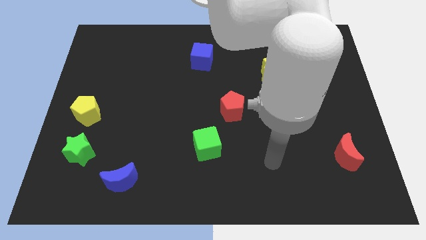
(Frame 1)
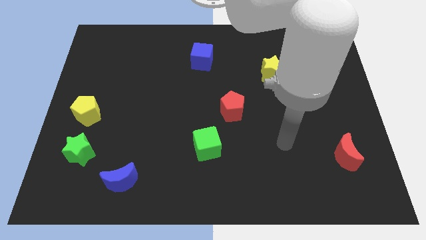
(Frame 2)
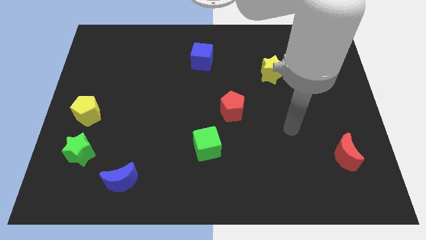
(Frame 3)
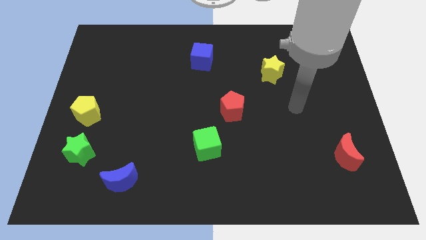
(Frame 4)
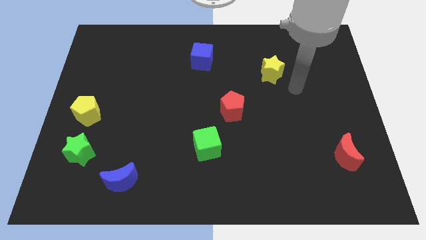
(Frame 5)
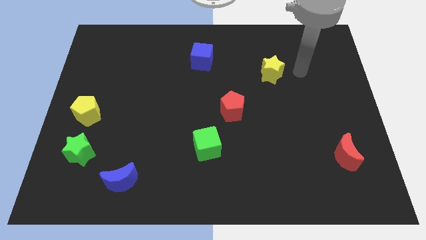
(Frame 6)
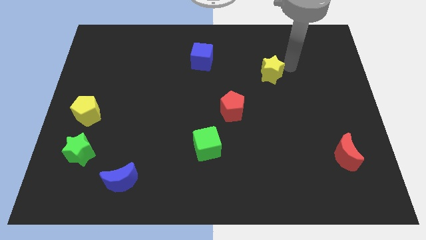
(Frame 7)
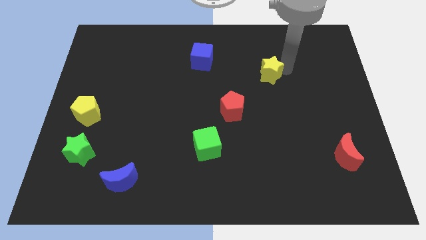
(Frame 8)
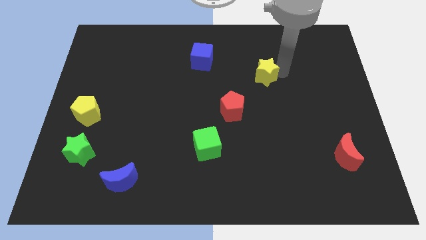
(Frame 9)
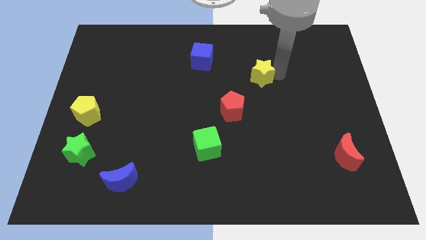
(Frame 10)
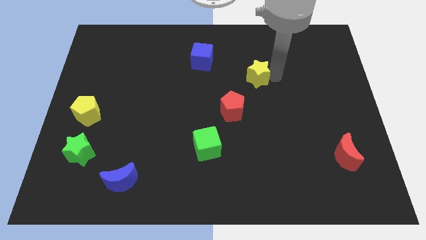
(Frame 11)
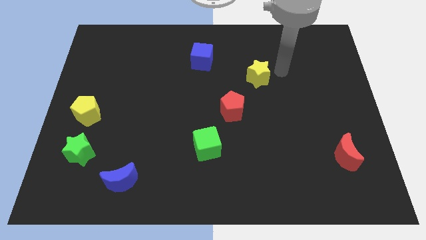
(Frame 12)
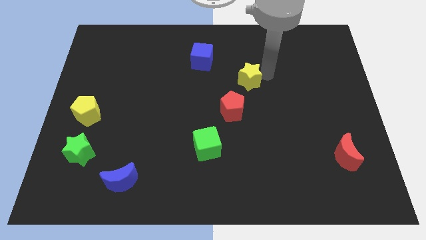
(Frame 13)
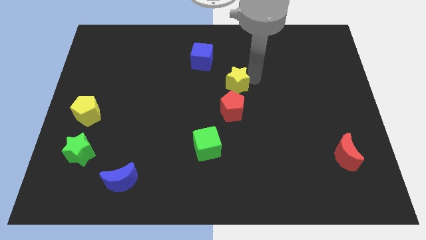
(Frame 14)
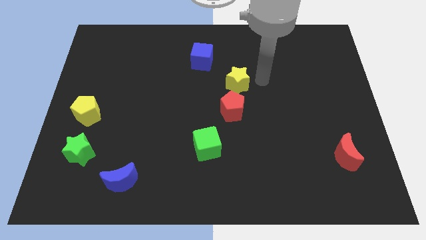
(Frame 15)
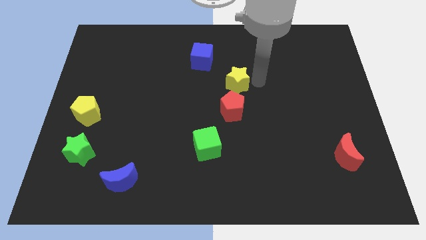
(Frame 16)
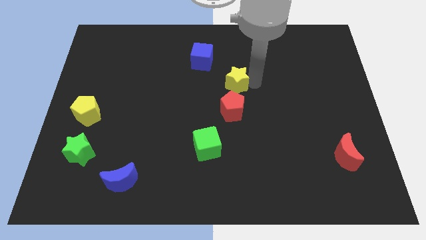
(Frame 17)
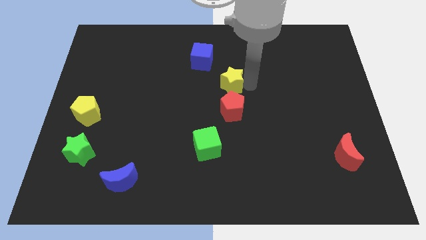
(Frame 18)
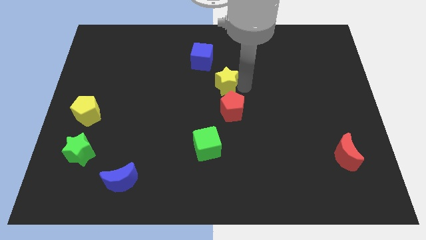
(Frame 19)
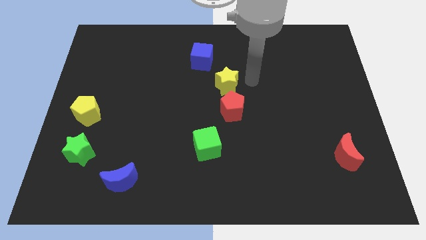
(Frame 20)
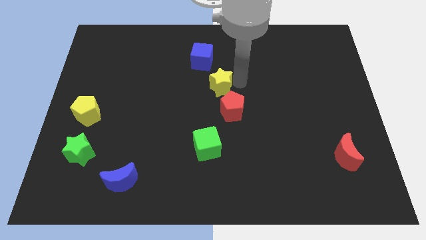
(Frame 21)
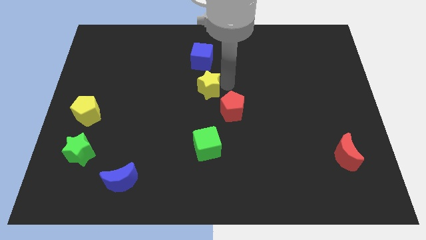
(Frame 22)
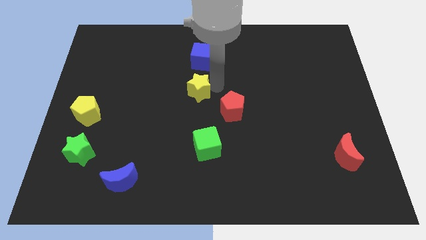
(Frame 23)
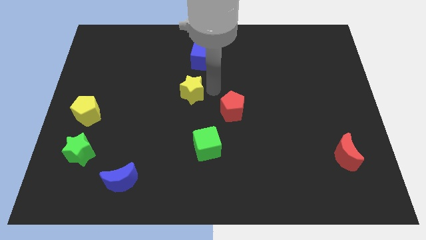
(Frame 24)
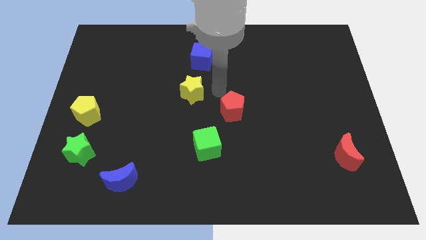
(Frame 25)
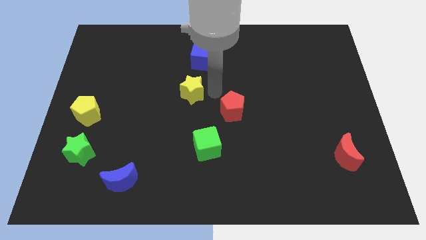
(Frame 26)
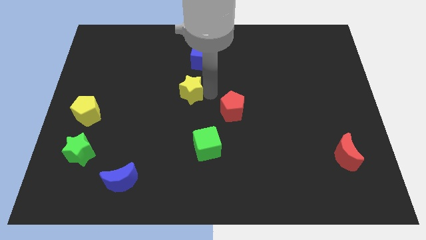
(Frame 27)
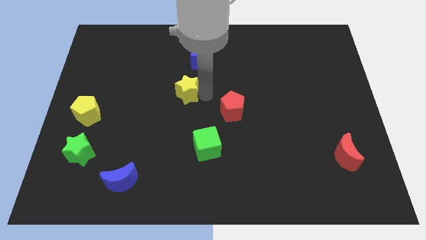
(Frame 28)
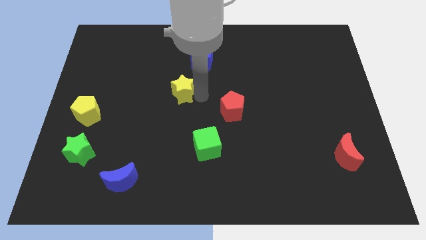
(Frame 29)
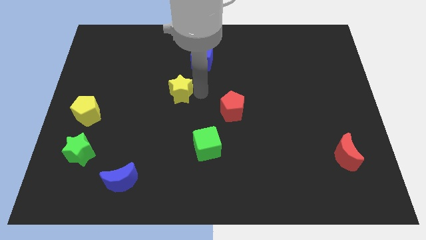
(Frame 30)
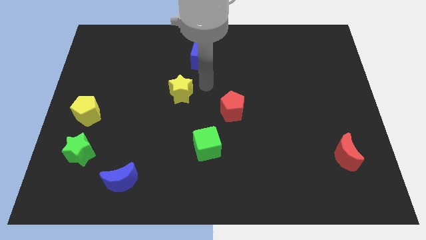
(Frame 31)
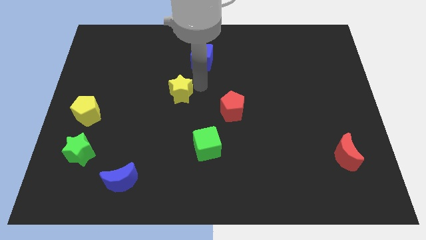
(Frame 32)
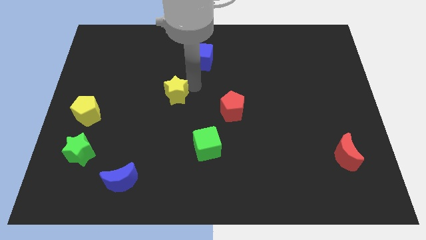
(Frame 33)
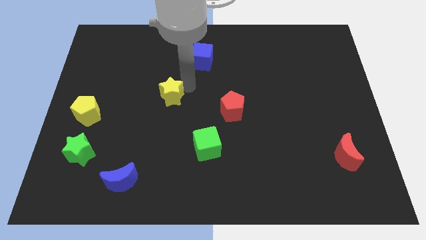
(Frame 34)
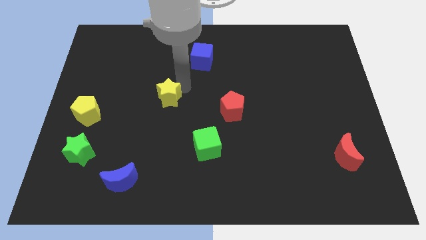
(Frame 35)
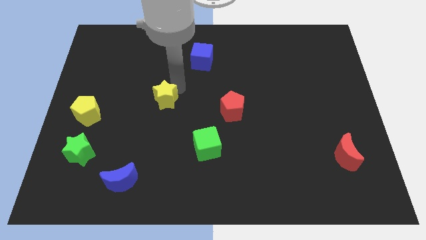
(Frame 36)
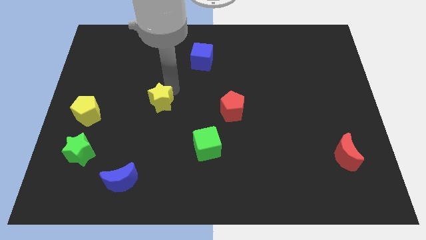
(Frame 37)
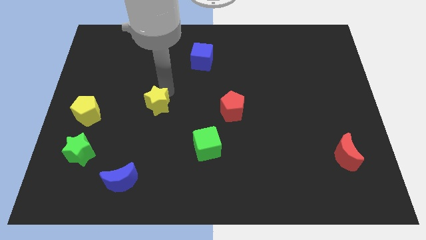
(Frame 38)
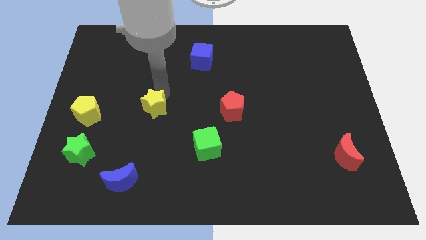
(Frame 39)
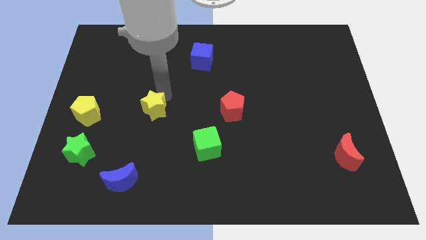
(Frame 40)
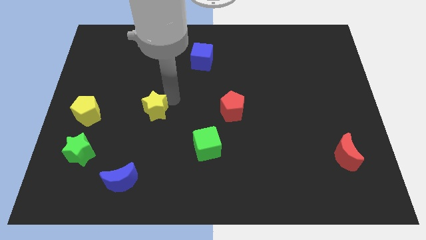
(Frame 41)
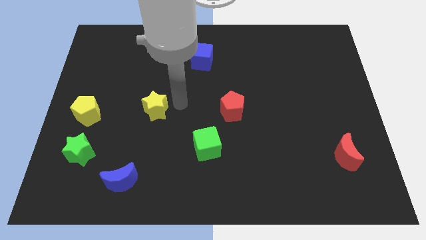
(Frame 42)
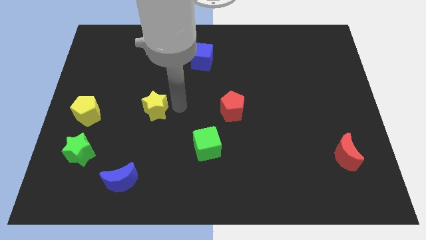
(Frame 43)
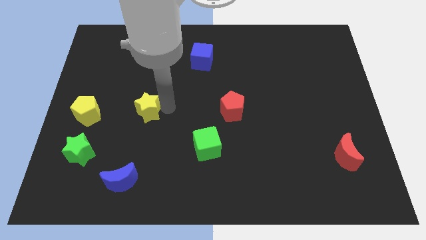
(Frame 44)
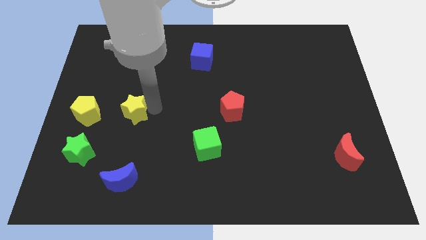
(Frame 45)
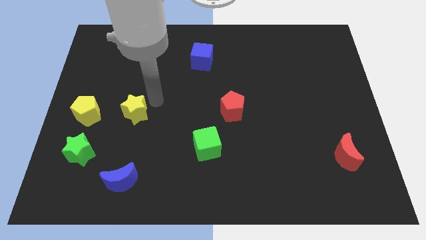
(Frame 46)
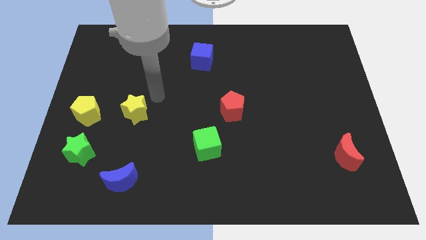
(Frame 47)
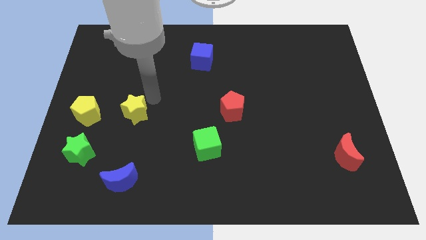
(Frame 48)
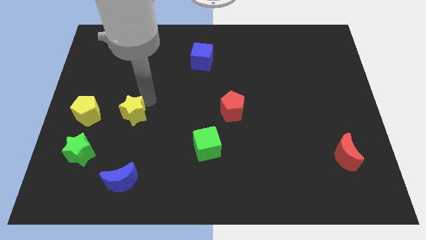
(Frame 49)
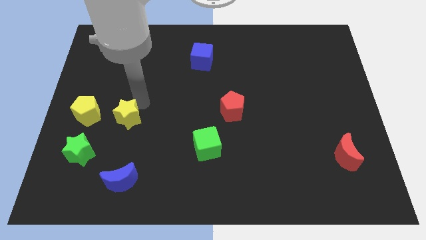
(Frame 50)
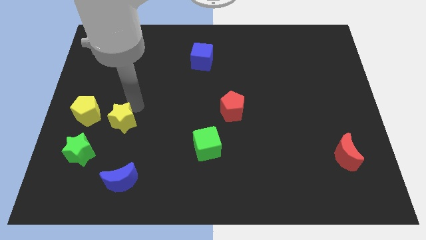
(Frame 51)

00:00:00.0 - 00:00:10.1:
put the yellow star to the bottom right side of the yellow pentagon

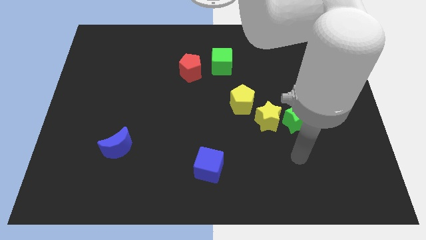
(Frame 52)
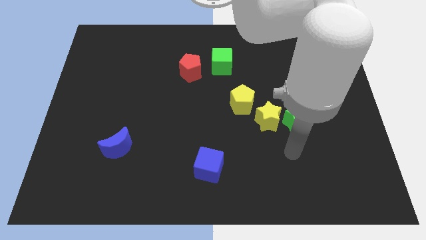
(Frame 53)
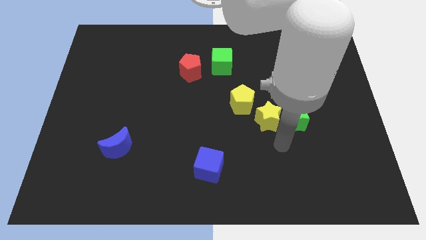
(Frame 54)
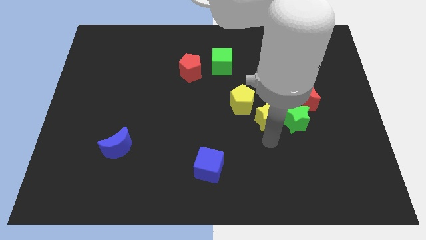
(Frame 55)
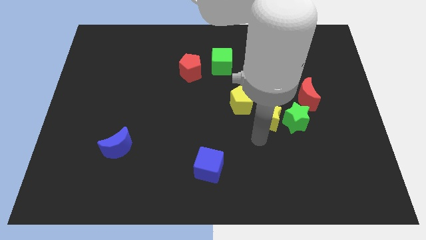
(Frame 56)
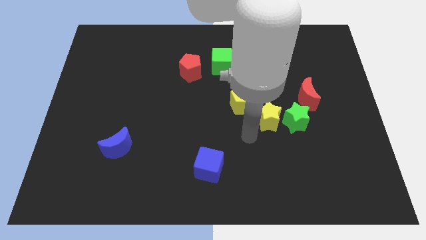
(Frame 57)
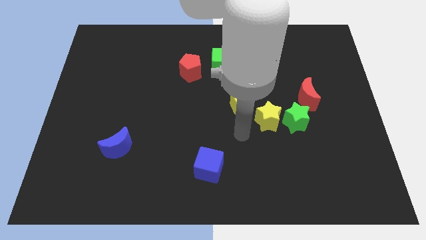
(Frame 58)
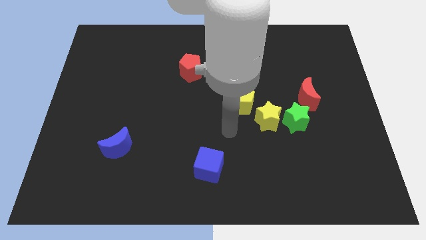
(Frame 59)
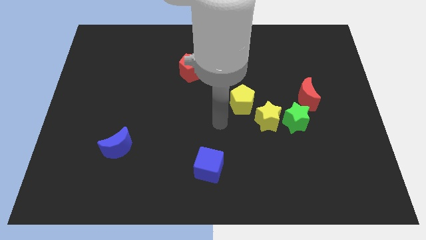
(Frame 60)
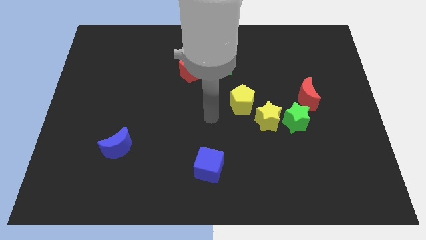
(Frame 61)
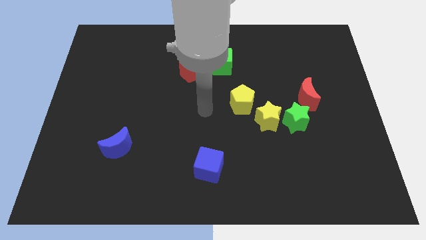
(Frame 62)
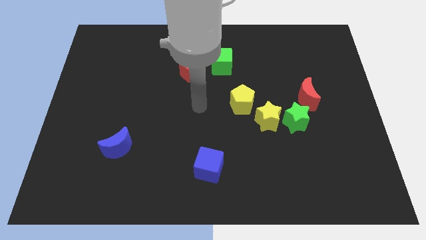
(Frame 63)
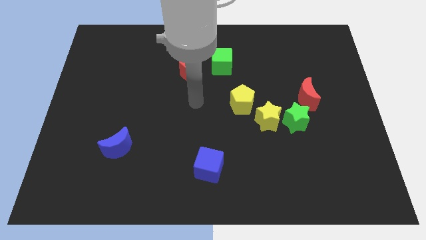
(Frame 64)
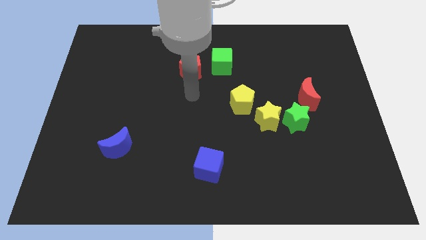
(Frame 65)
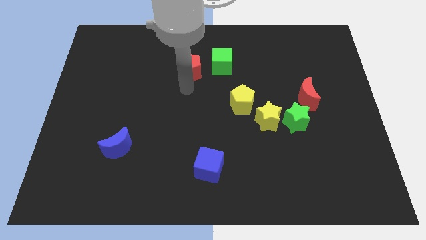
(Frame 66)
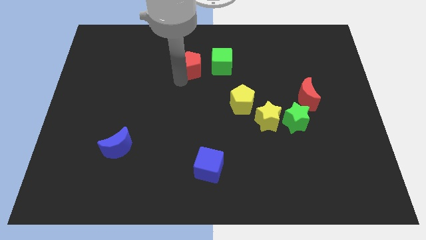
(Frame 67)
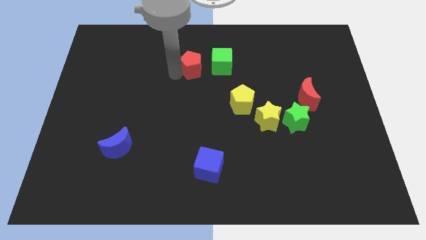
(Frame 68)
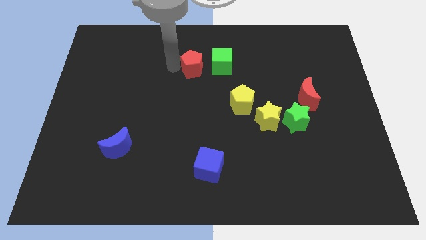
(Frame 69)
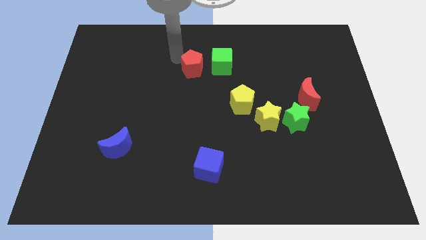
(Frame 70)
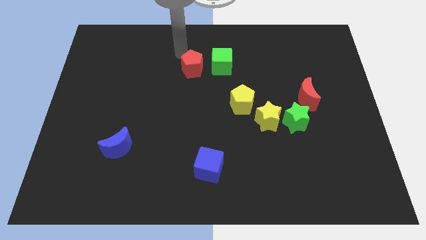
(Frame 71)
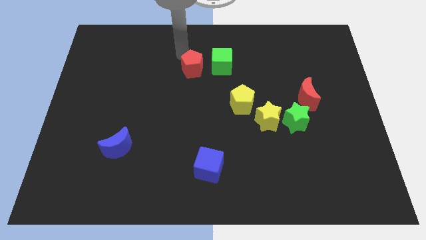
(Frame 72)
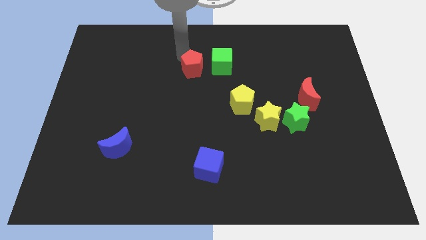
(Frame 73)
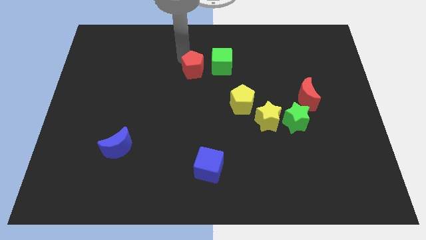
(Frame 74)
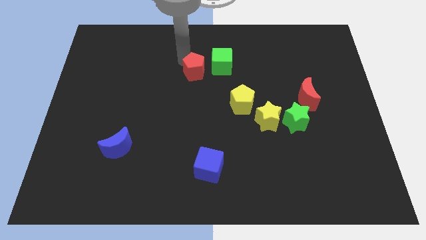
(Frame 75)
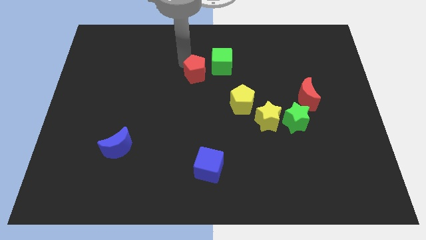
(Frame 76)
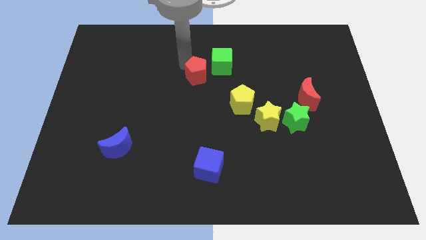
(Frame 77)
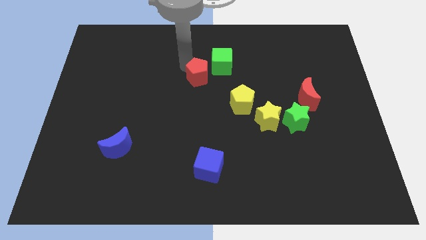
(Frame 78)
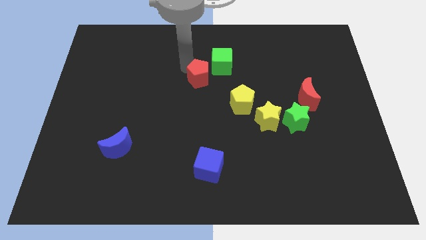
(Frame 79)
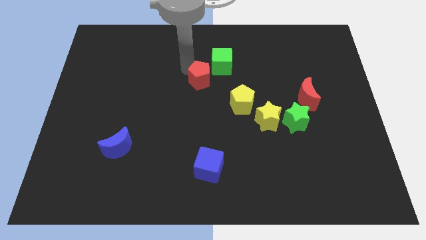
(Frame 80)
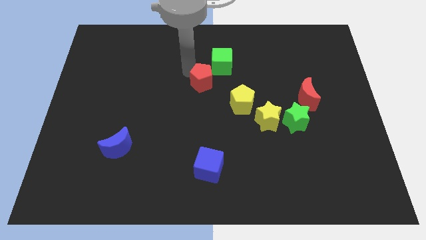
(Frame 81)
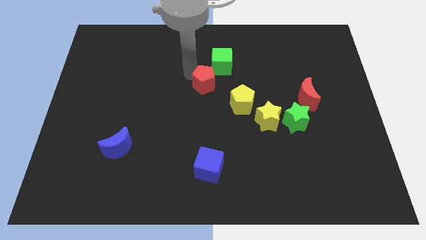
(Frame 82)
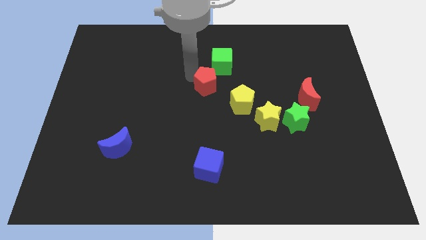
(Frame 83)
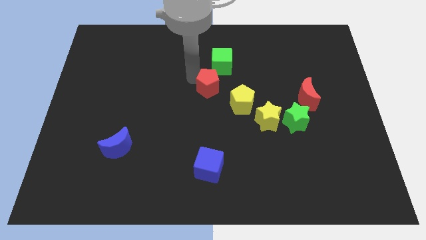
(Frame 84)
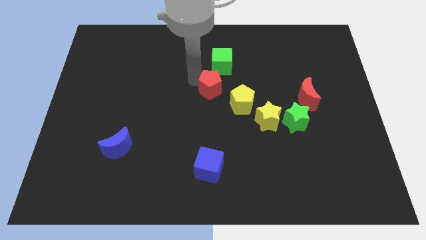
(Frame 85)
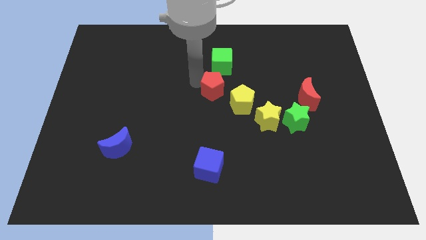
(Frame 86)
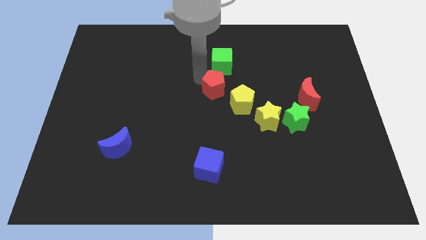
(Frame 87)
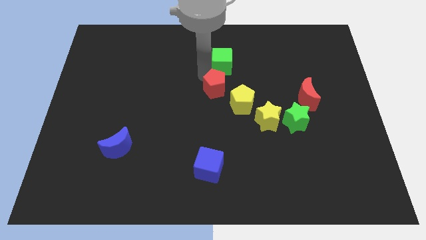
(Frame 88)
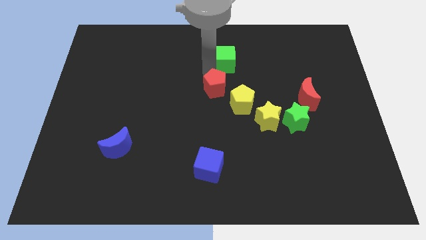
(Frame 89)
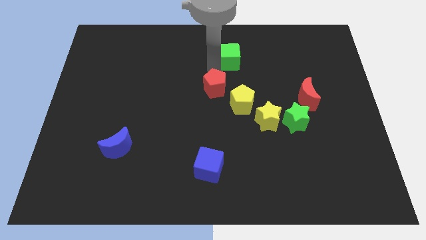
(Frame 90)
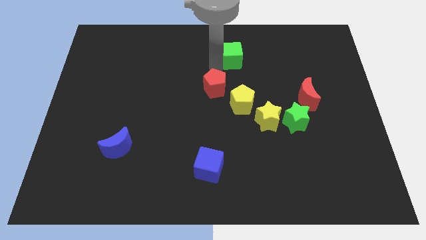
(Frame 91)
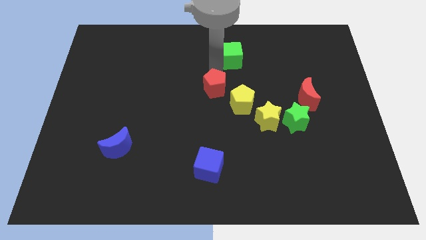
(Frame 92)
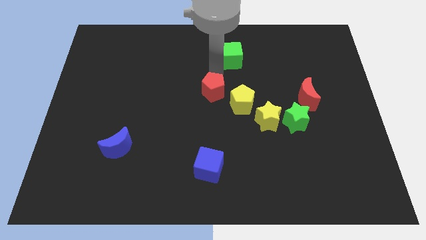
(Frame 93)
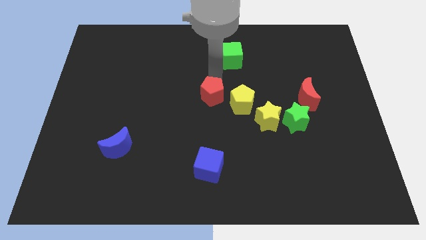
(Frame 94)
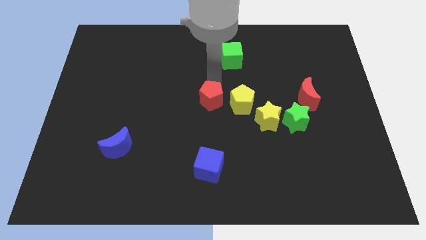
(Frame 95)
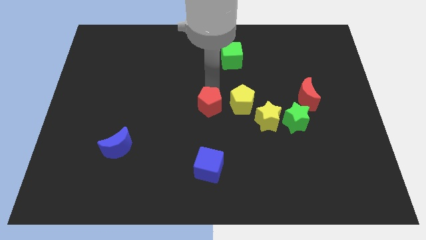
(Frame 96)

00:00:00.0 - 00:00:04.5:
push the red pentagon left of the yellow star
